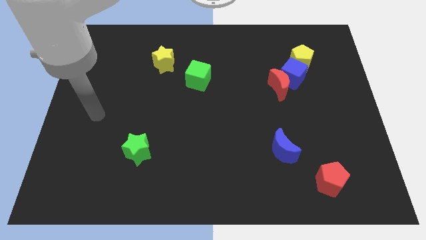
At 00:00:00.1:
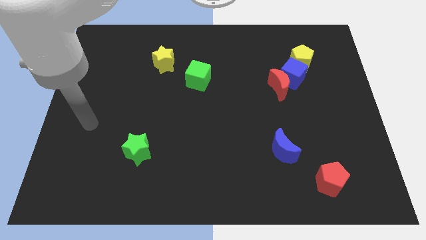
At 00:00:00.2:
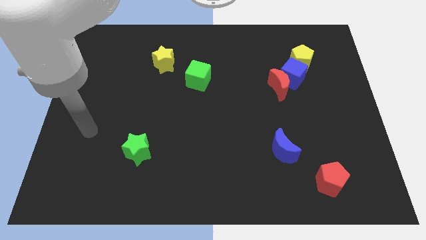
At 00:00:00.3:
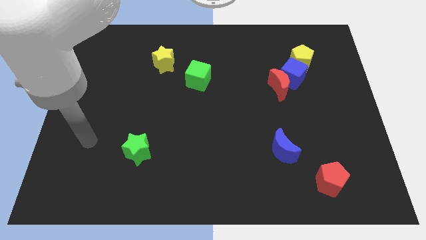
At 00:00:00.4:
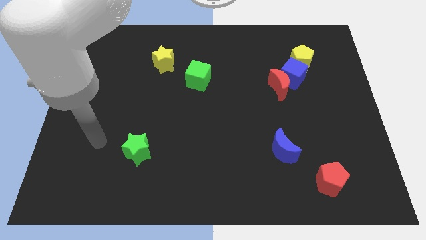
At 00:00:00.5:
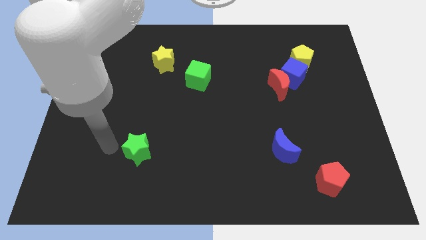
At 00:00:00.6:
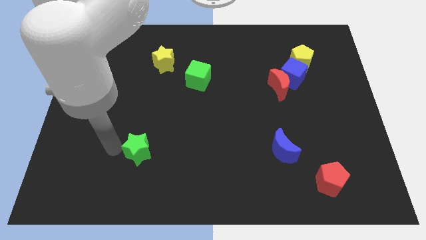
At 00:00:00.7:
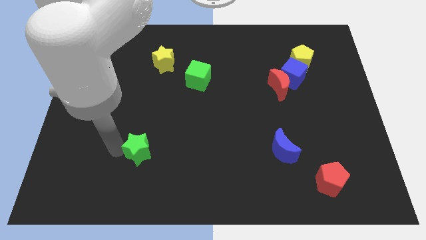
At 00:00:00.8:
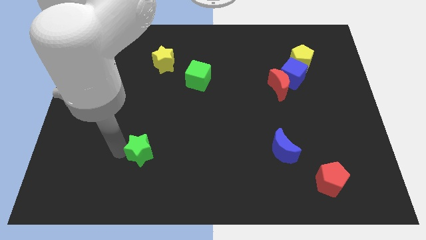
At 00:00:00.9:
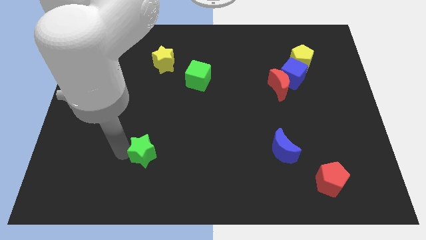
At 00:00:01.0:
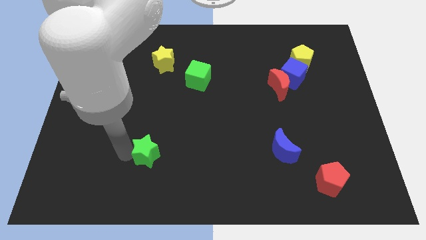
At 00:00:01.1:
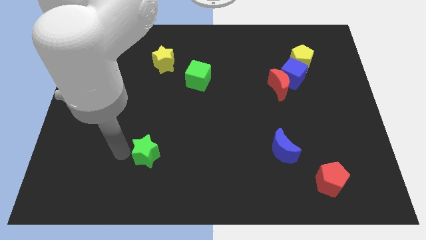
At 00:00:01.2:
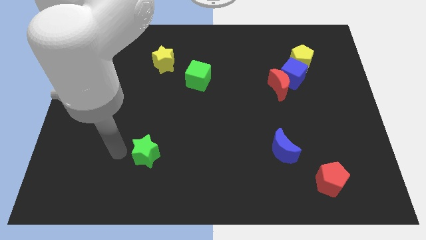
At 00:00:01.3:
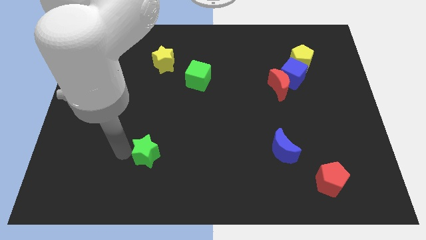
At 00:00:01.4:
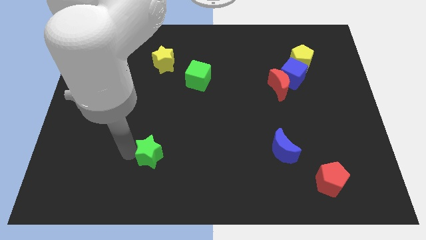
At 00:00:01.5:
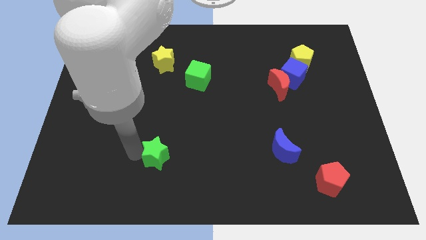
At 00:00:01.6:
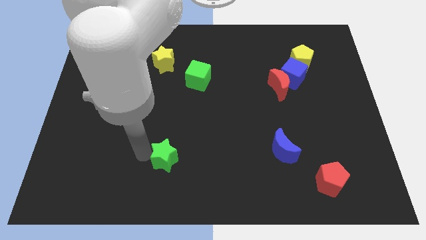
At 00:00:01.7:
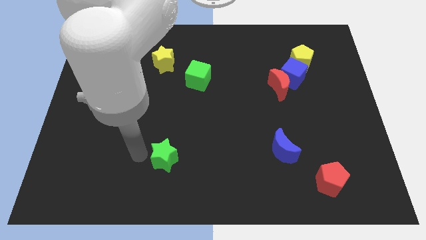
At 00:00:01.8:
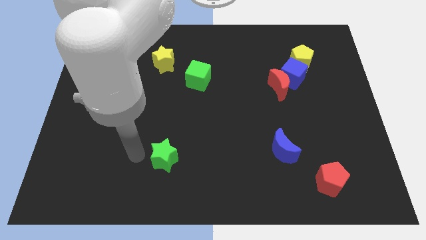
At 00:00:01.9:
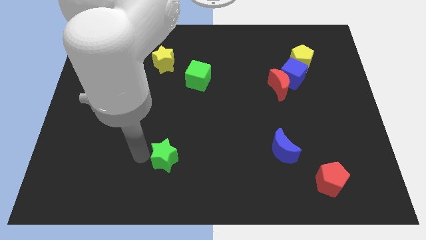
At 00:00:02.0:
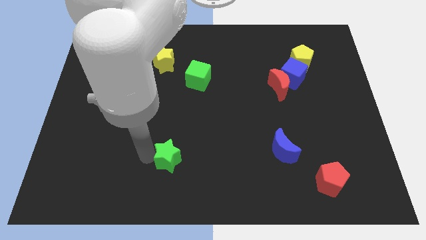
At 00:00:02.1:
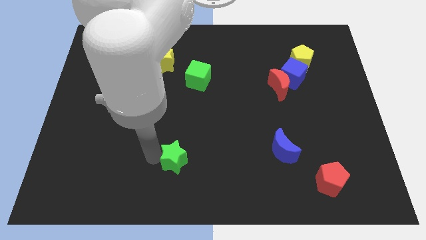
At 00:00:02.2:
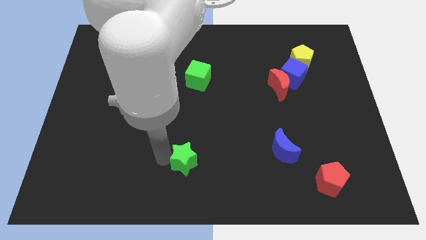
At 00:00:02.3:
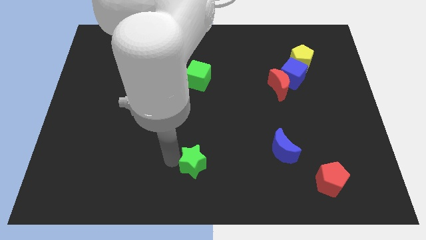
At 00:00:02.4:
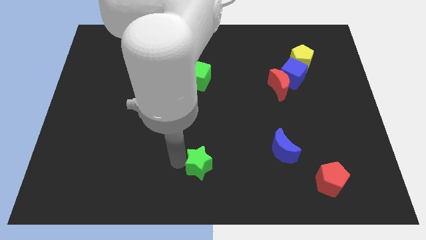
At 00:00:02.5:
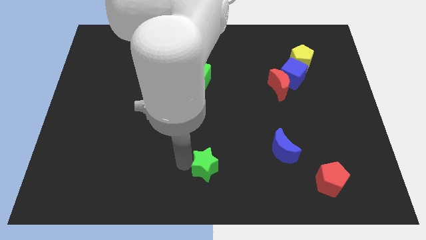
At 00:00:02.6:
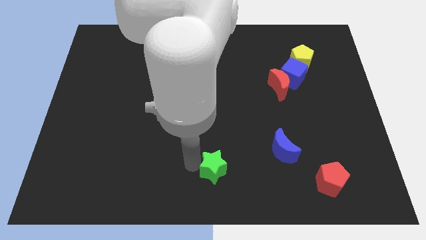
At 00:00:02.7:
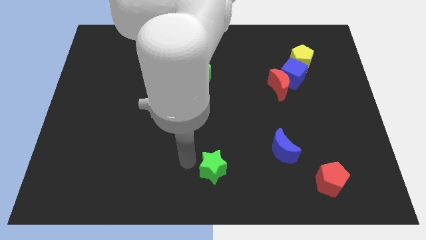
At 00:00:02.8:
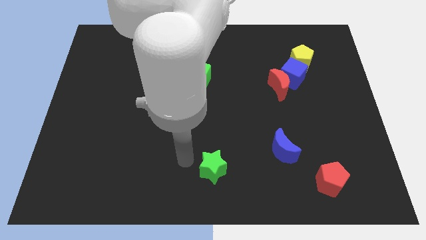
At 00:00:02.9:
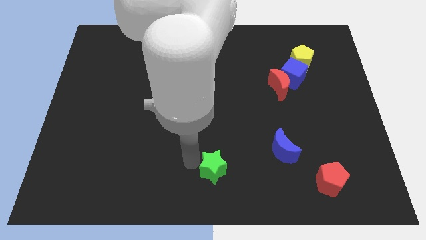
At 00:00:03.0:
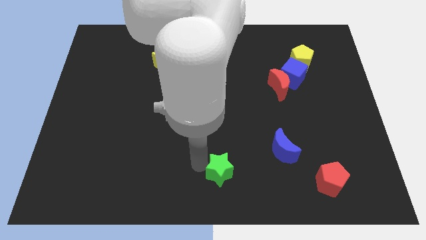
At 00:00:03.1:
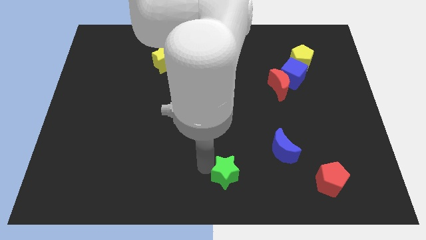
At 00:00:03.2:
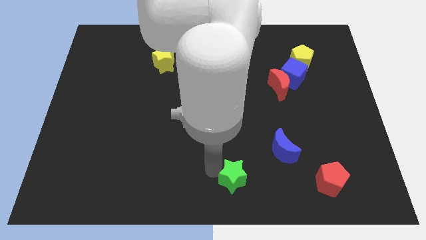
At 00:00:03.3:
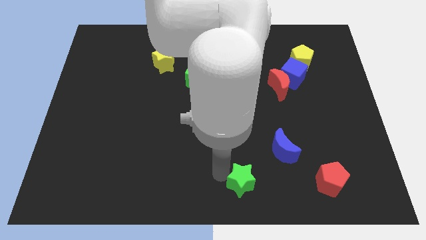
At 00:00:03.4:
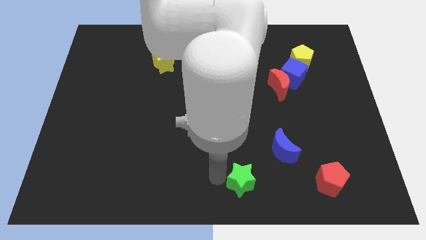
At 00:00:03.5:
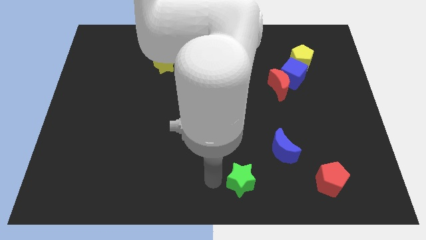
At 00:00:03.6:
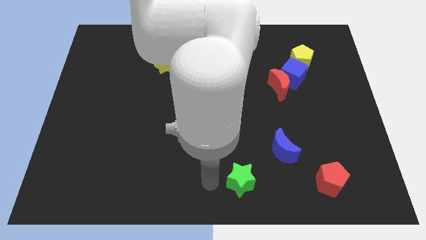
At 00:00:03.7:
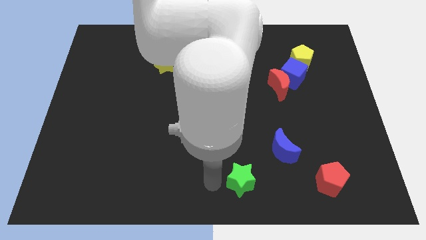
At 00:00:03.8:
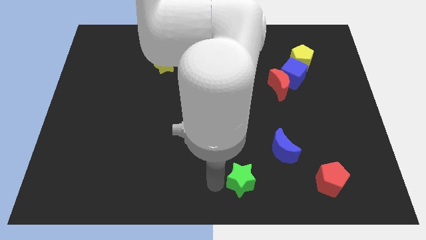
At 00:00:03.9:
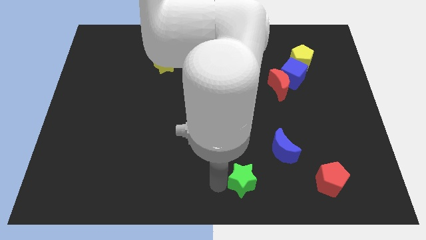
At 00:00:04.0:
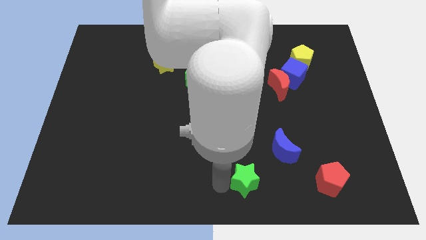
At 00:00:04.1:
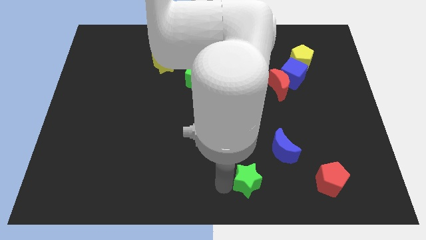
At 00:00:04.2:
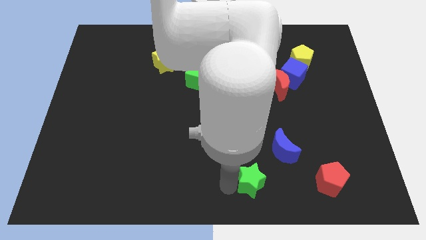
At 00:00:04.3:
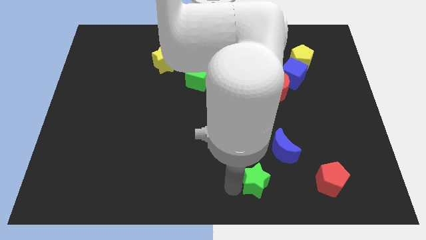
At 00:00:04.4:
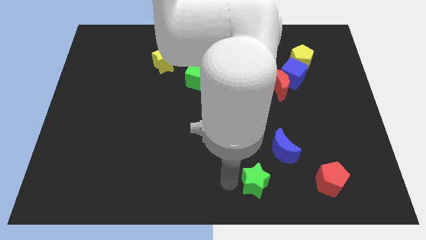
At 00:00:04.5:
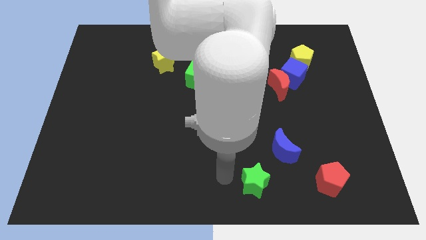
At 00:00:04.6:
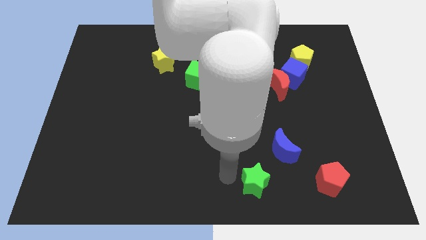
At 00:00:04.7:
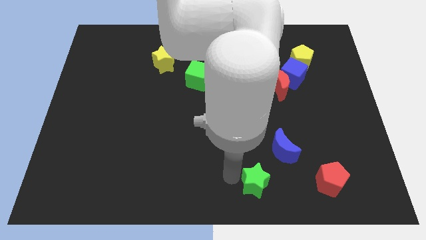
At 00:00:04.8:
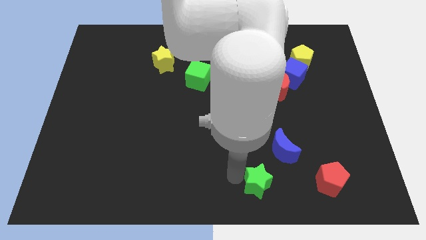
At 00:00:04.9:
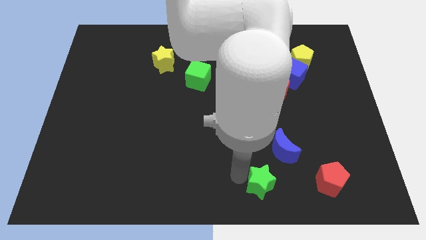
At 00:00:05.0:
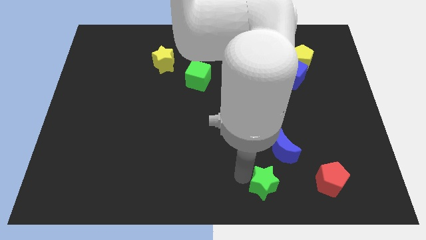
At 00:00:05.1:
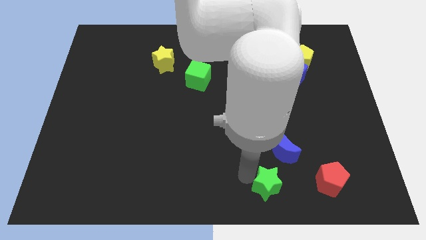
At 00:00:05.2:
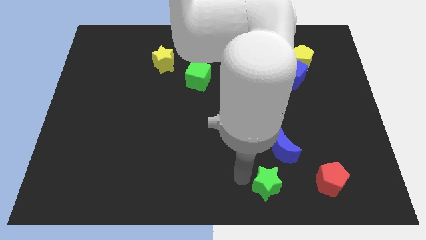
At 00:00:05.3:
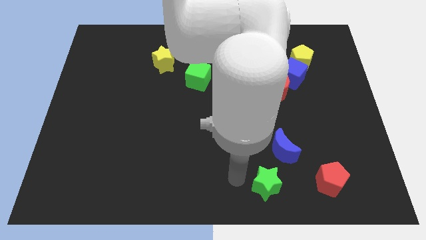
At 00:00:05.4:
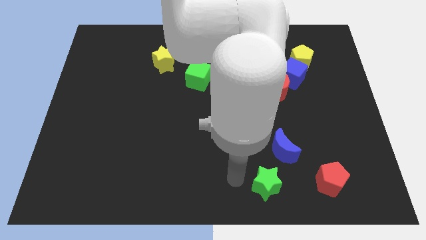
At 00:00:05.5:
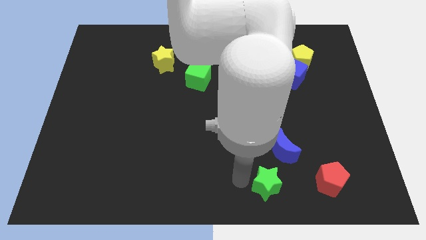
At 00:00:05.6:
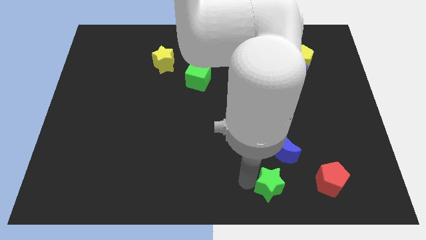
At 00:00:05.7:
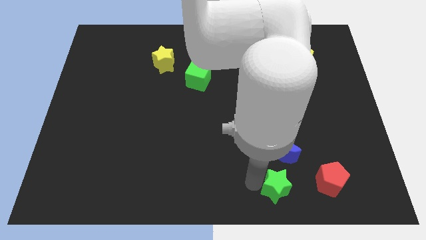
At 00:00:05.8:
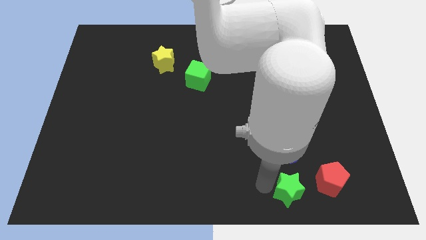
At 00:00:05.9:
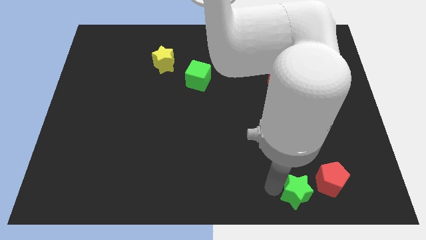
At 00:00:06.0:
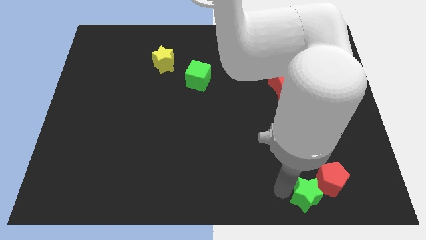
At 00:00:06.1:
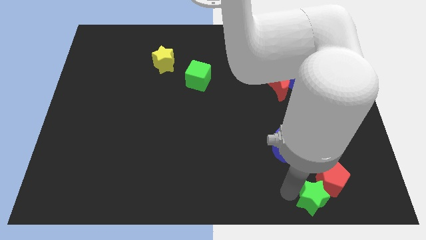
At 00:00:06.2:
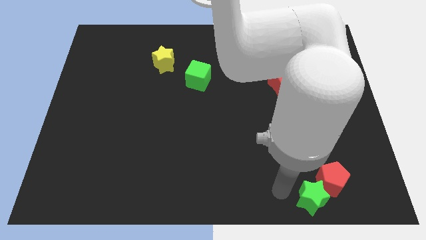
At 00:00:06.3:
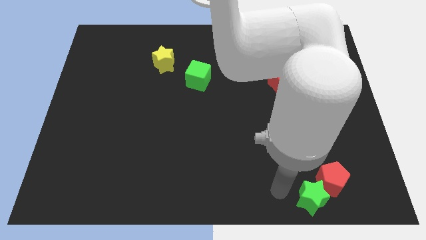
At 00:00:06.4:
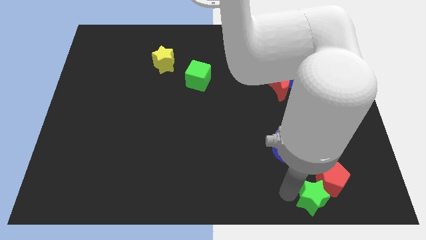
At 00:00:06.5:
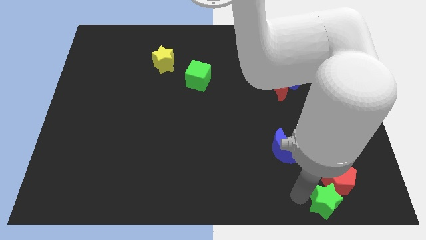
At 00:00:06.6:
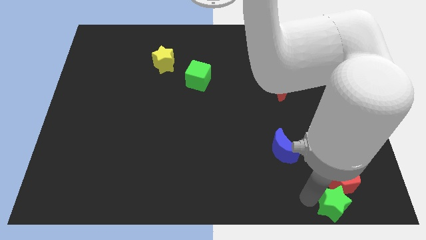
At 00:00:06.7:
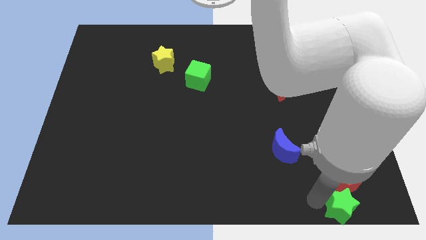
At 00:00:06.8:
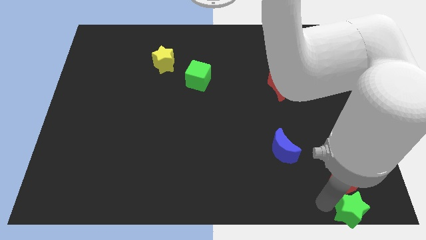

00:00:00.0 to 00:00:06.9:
put the green star to the lower right corner
